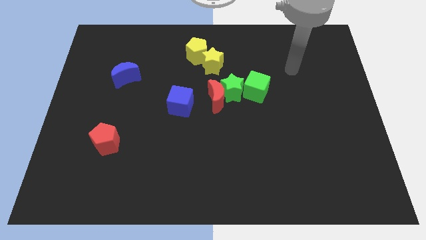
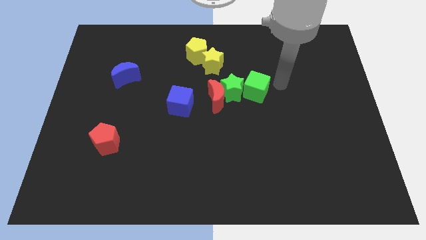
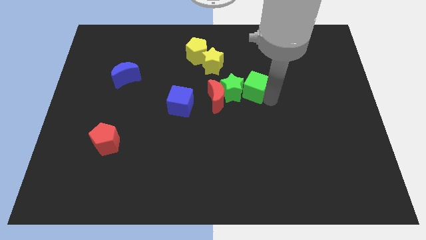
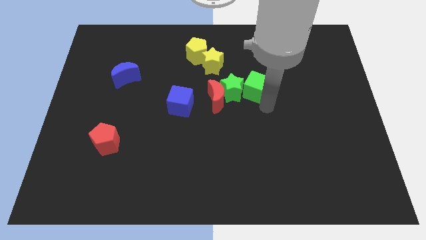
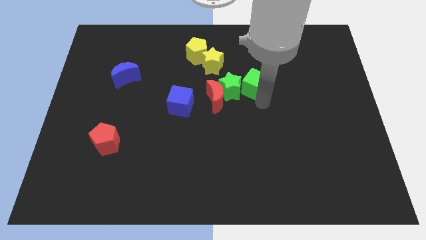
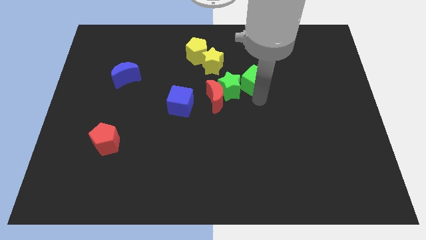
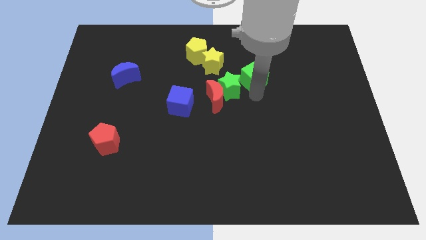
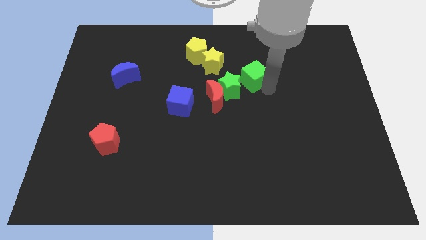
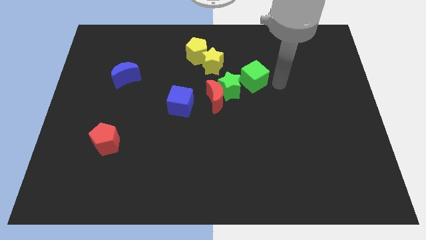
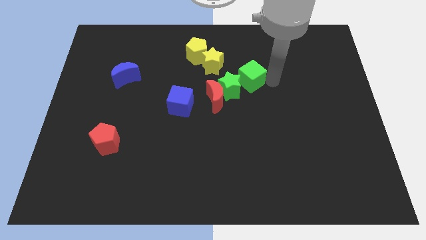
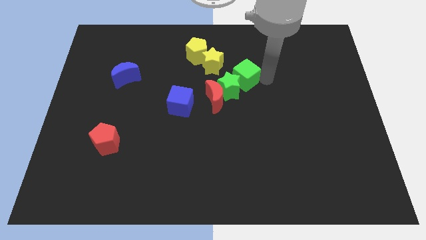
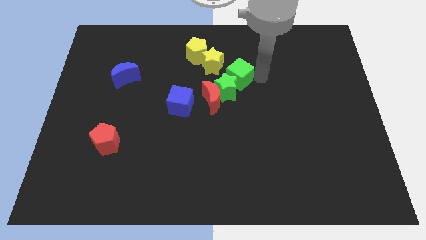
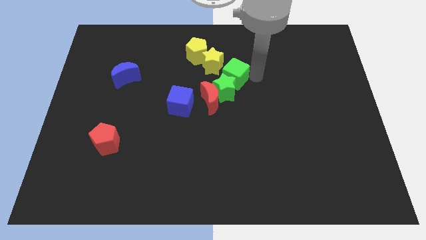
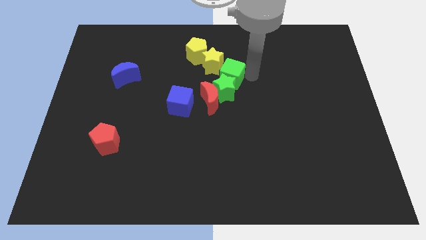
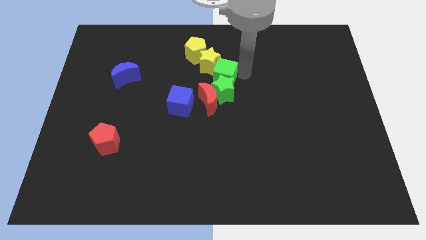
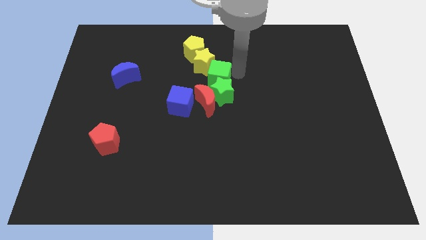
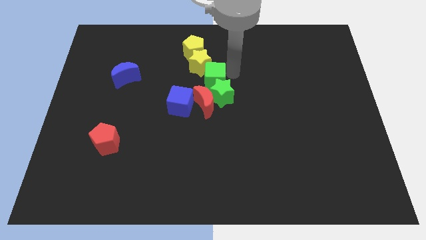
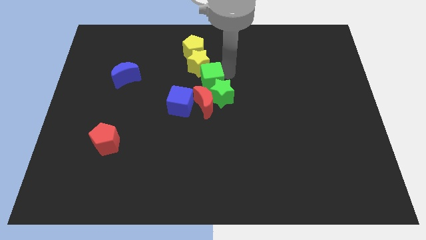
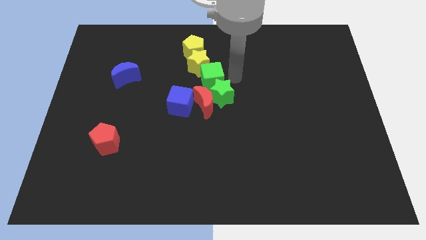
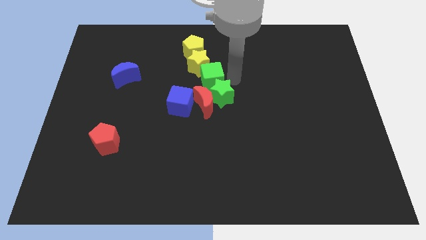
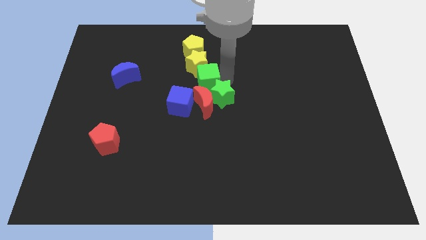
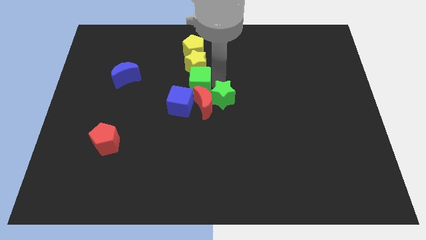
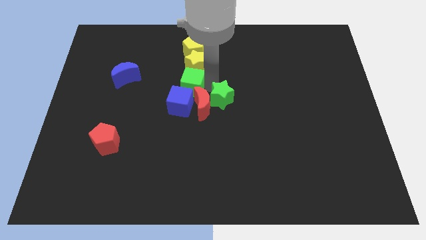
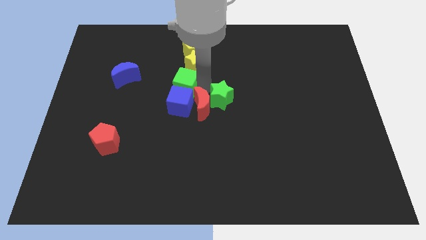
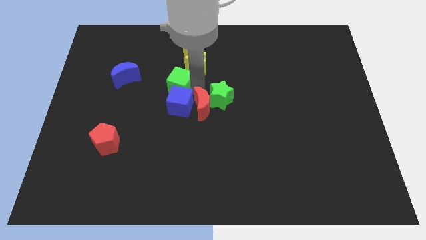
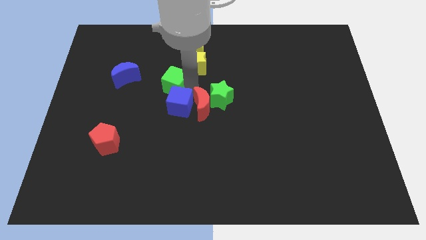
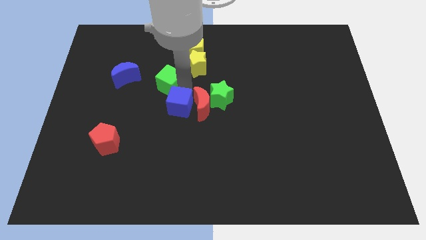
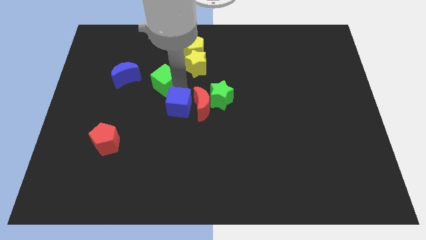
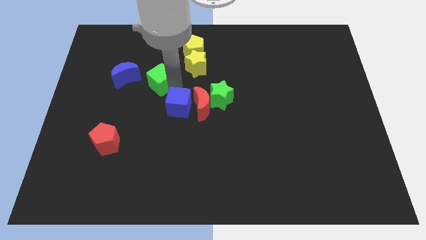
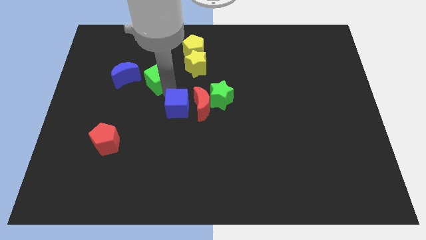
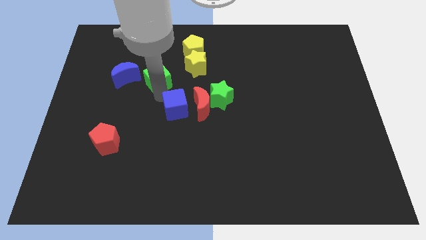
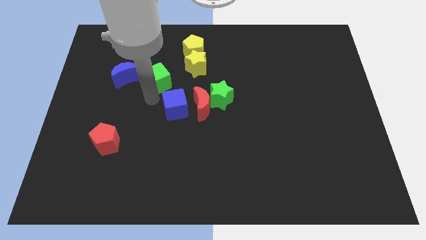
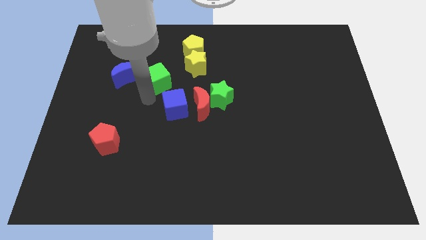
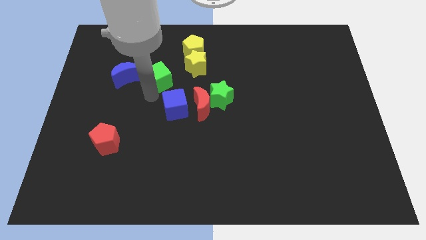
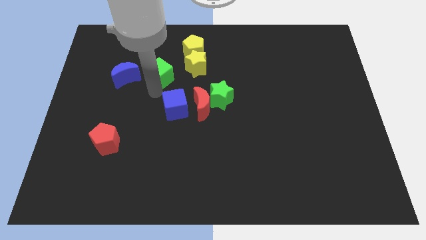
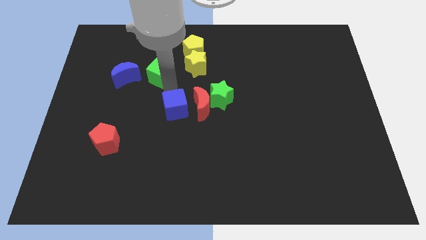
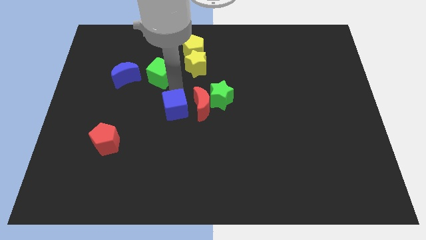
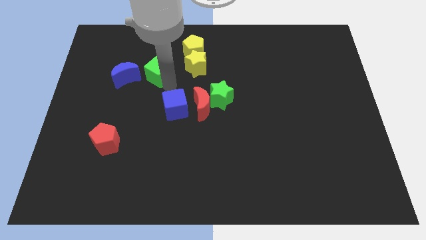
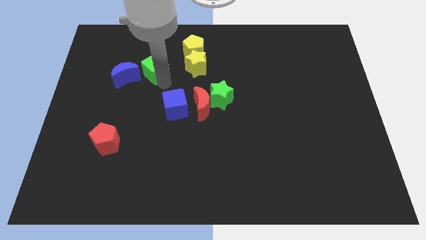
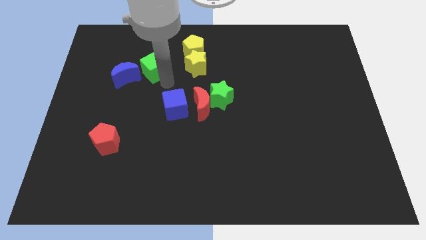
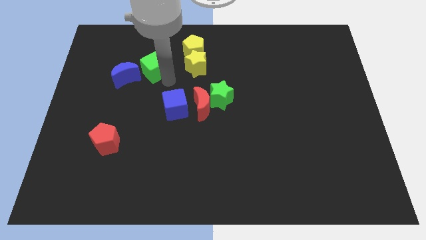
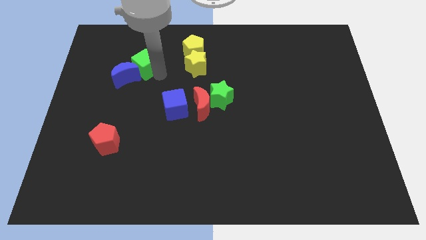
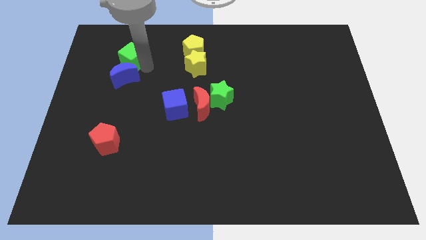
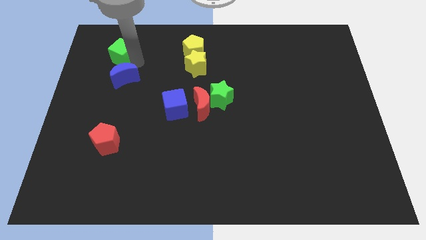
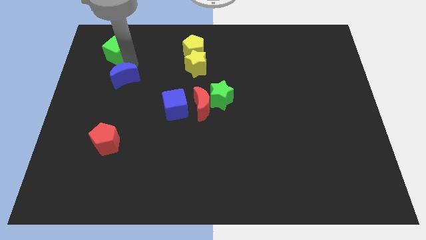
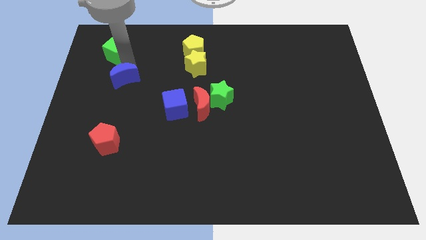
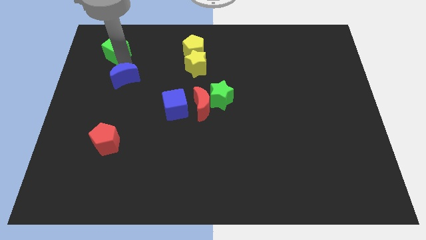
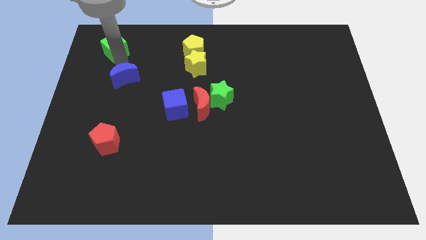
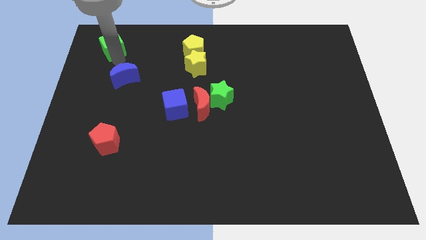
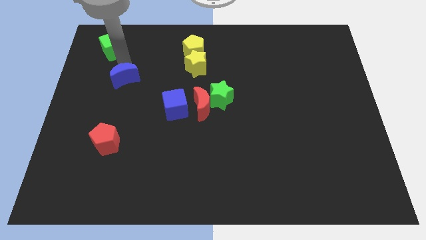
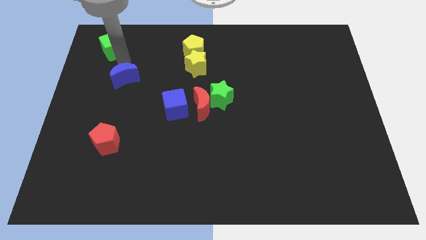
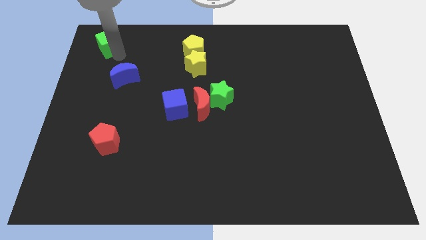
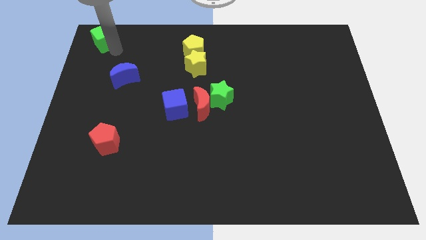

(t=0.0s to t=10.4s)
push the green cube to the top left

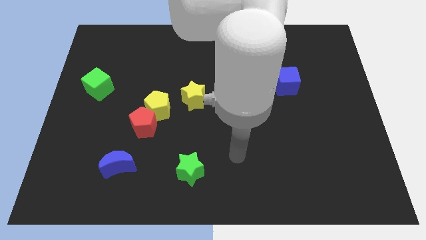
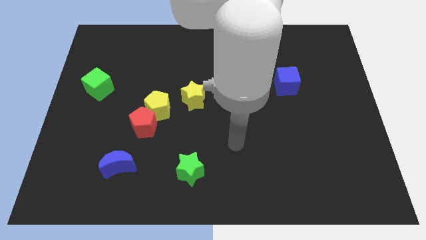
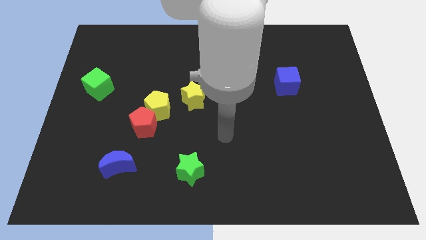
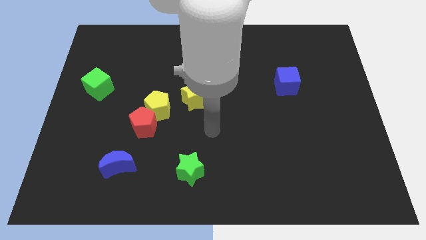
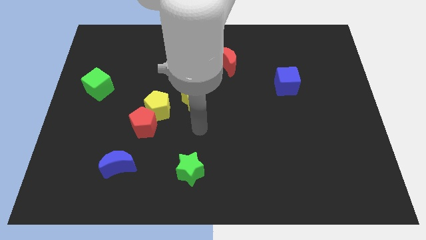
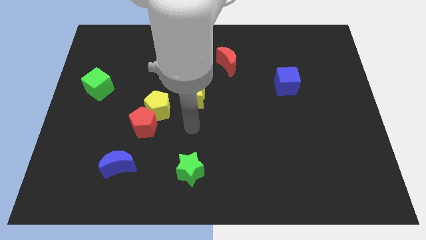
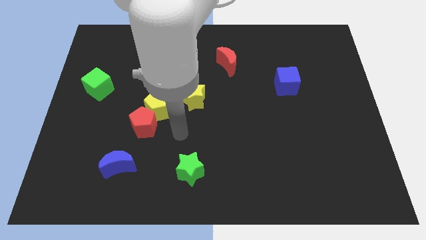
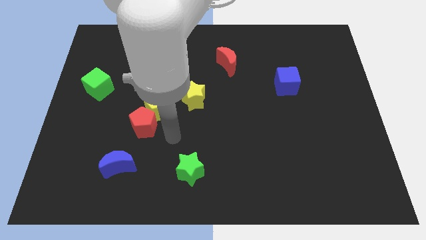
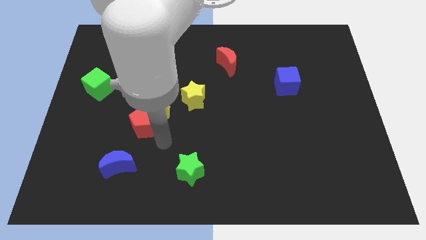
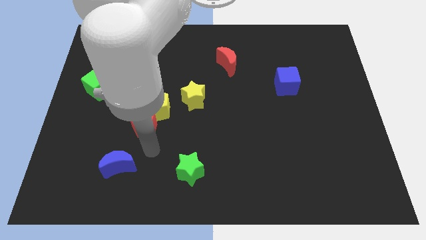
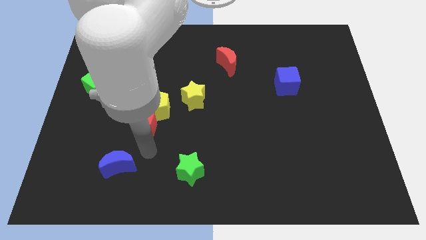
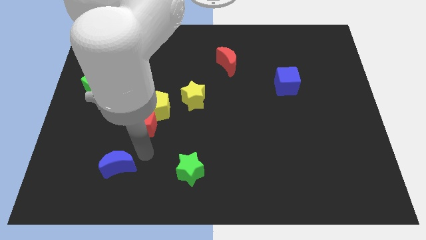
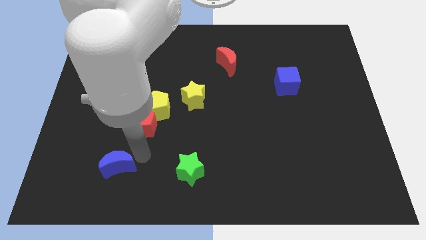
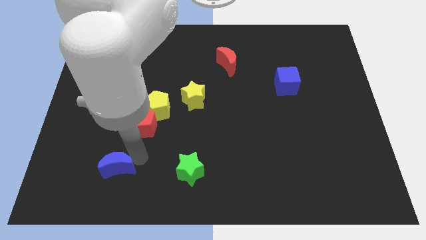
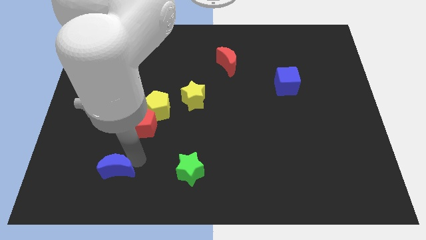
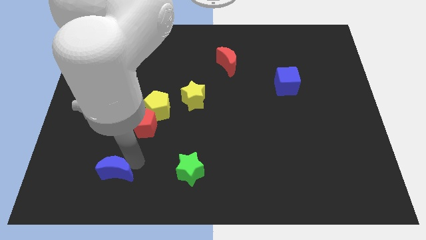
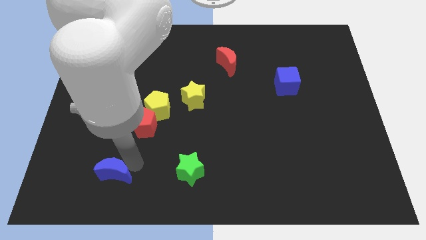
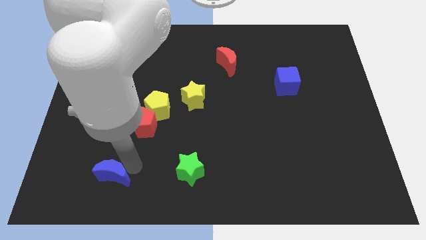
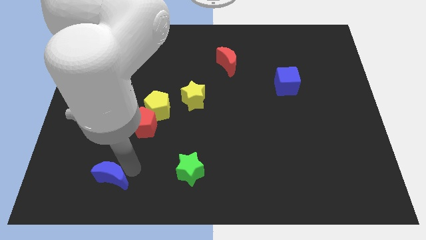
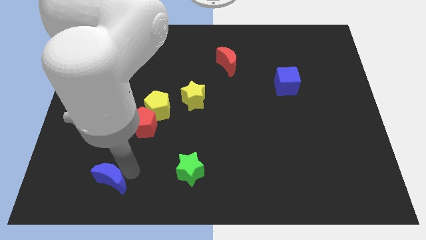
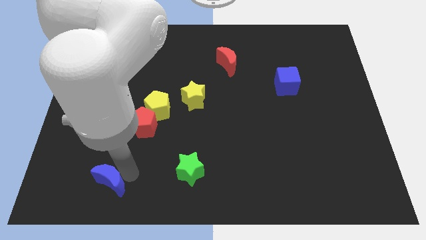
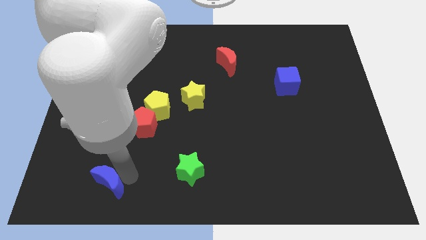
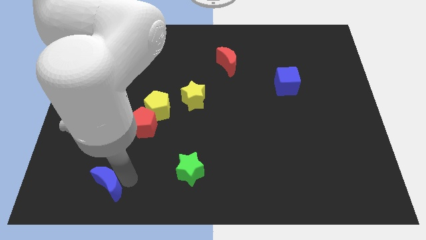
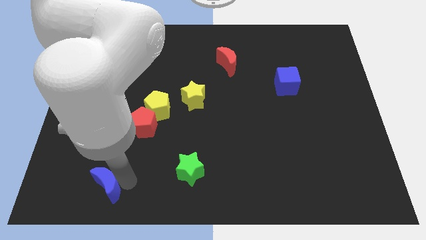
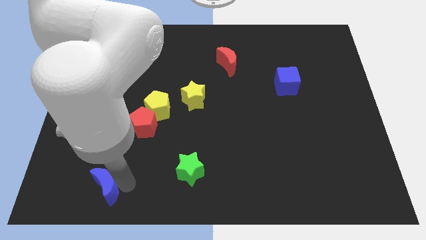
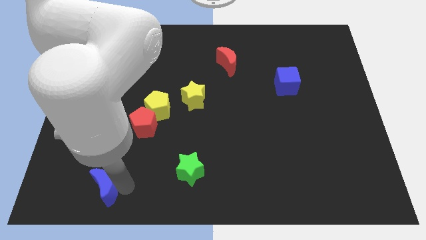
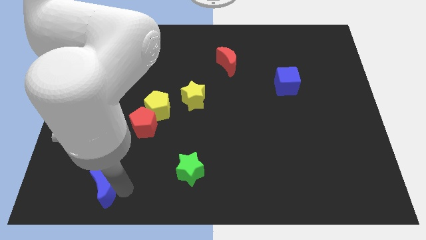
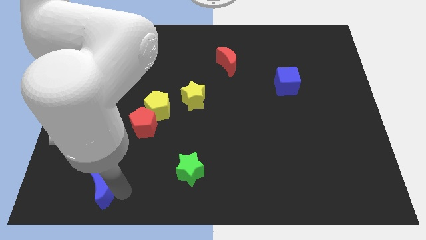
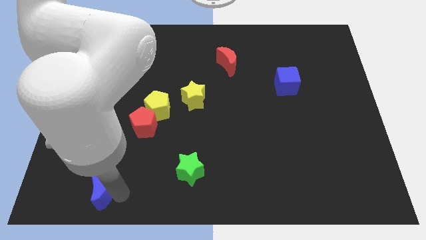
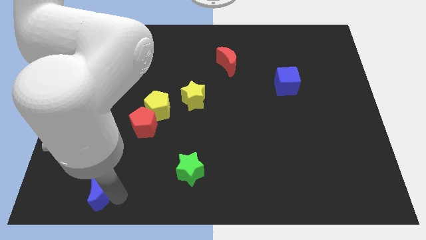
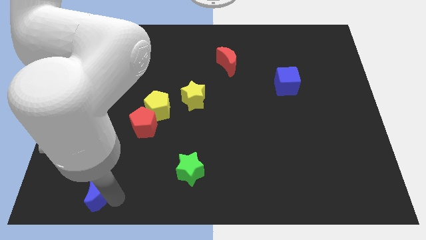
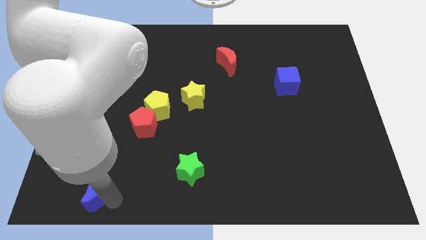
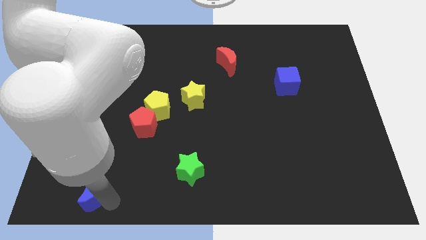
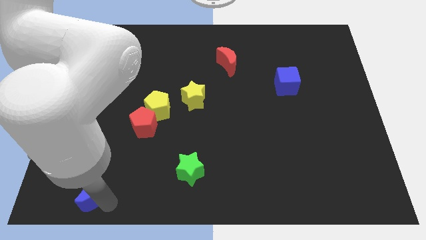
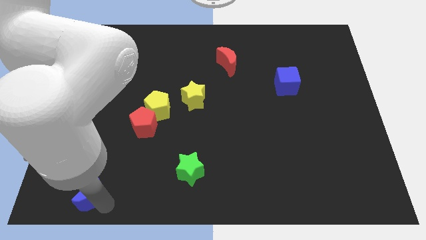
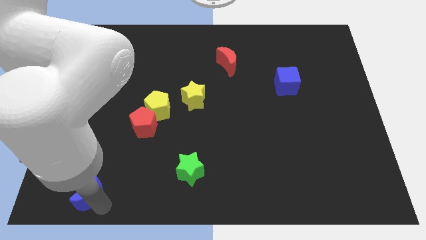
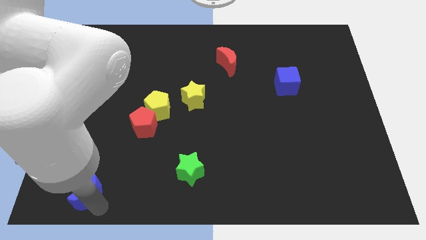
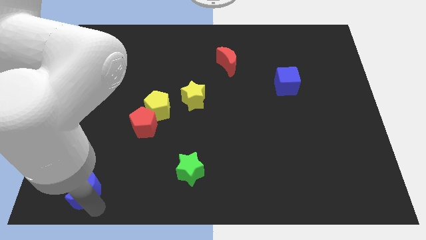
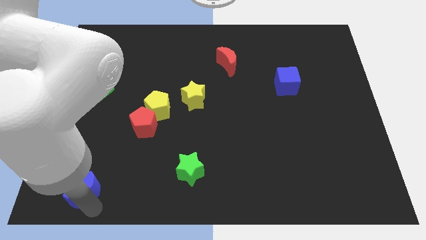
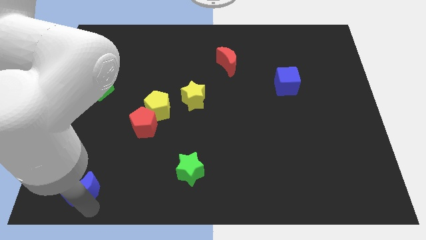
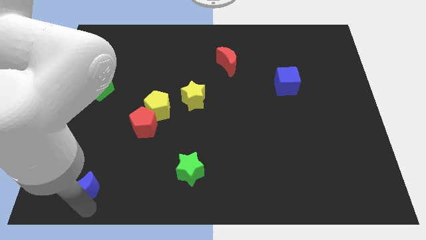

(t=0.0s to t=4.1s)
put the blue moon to the bottom left of the board
